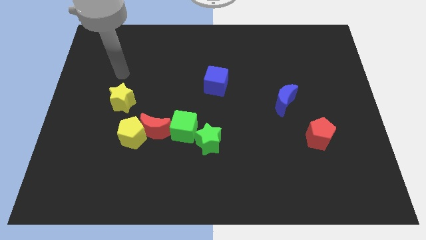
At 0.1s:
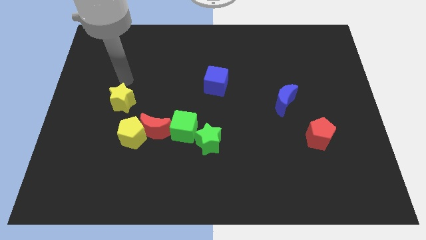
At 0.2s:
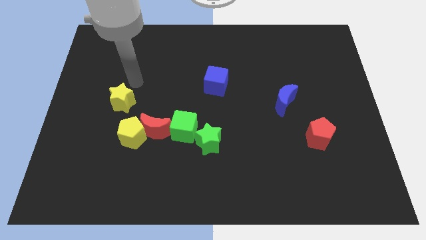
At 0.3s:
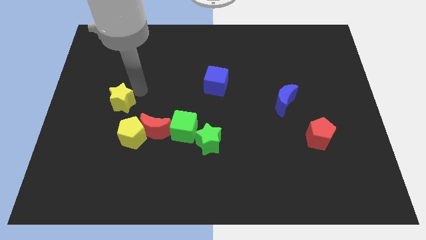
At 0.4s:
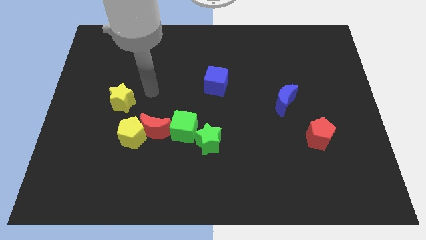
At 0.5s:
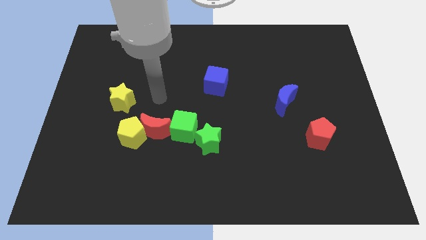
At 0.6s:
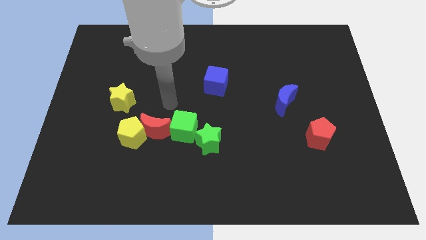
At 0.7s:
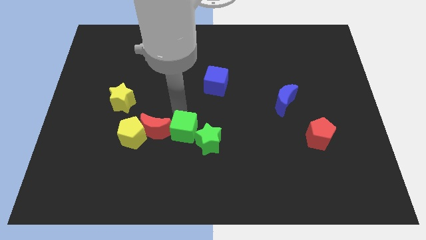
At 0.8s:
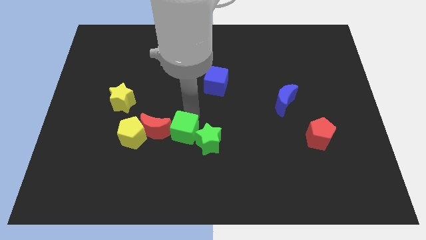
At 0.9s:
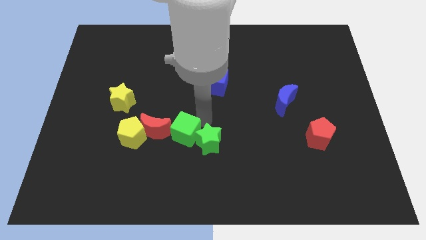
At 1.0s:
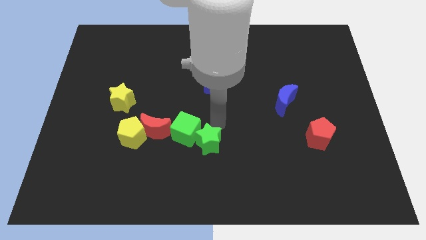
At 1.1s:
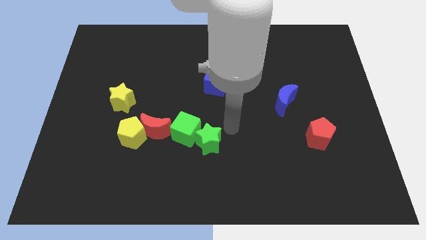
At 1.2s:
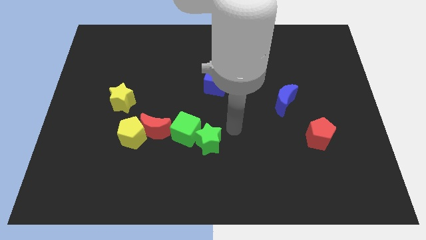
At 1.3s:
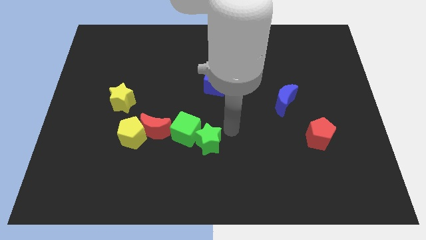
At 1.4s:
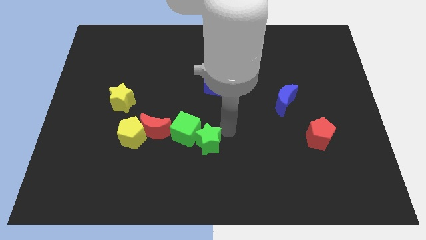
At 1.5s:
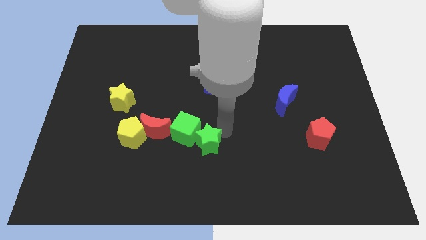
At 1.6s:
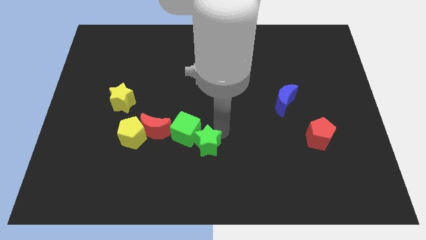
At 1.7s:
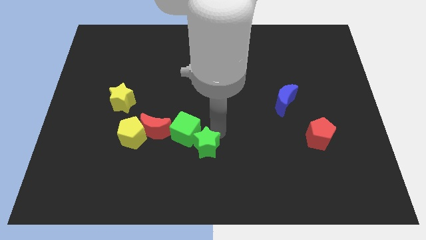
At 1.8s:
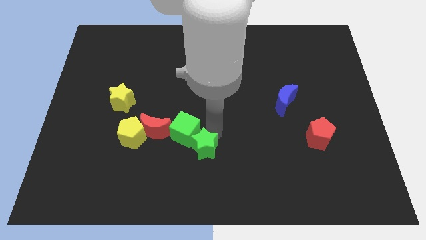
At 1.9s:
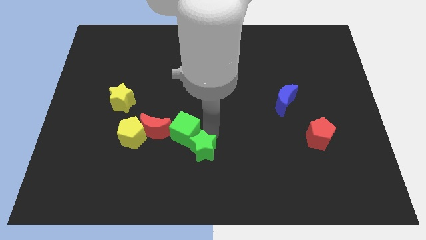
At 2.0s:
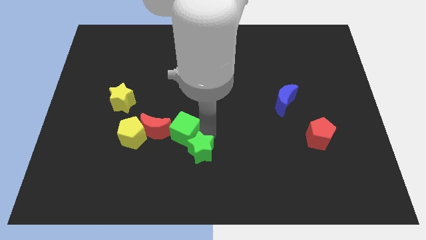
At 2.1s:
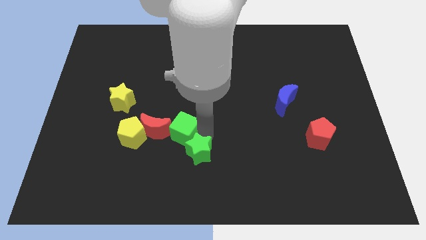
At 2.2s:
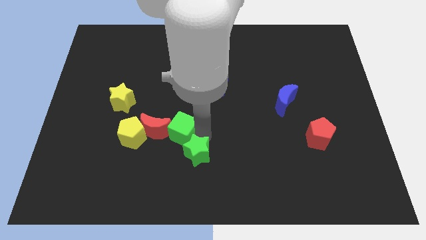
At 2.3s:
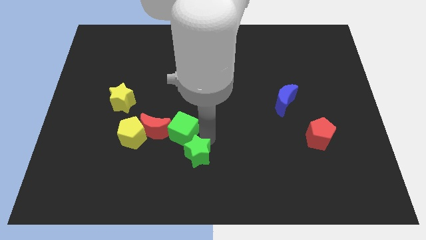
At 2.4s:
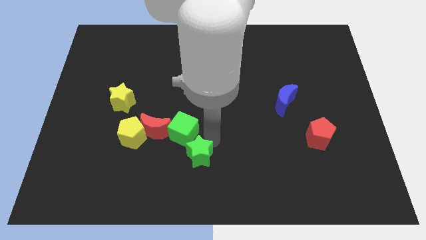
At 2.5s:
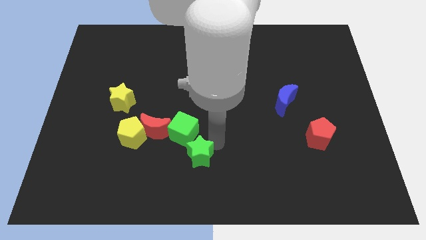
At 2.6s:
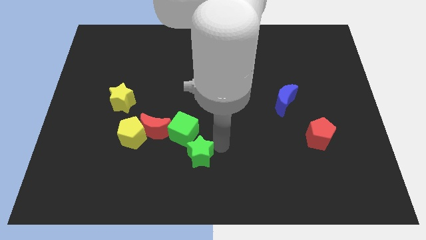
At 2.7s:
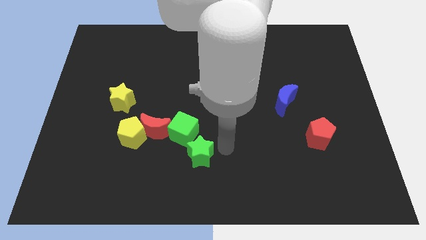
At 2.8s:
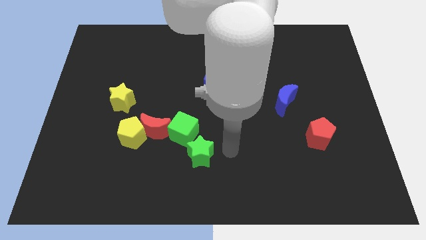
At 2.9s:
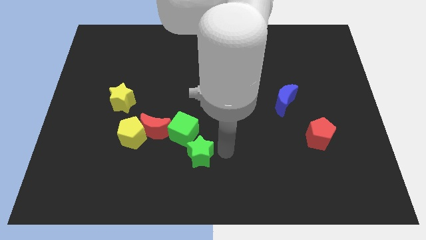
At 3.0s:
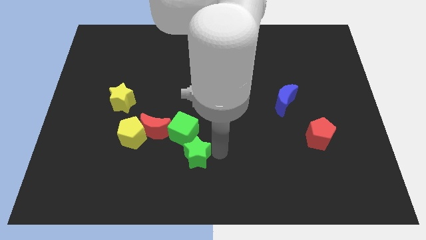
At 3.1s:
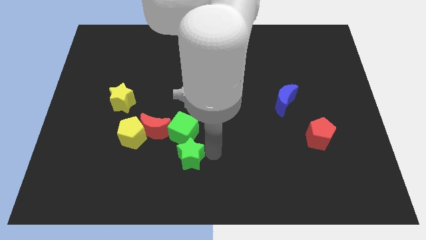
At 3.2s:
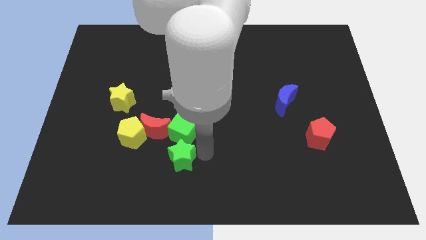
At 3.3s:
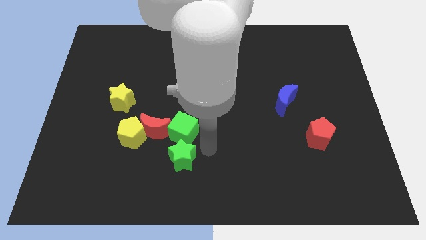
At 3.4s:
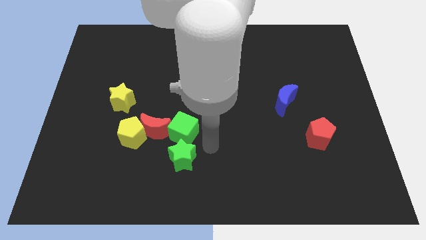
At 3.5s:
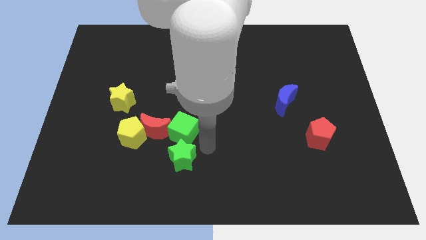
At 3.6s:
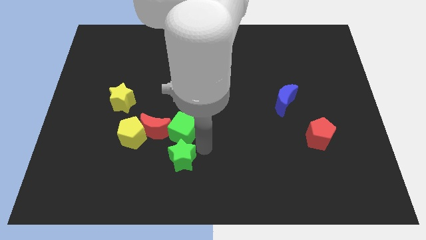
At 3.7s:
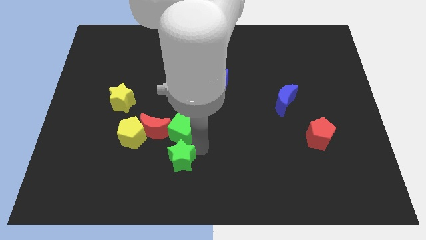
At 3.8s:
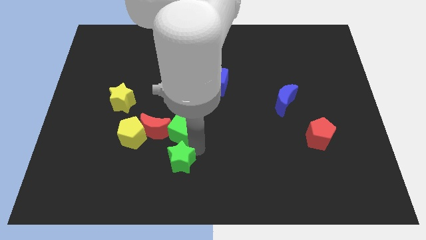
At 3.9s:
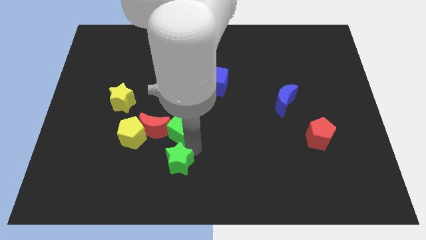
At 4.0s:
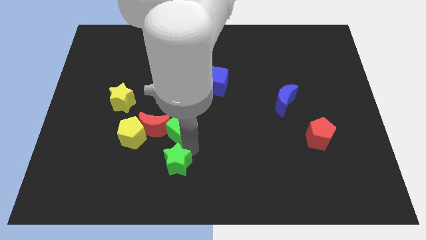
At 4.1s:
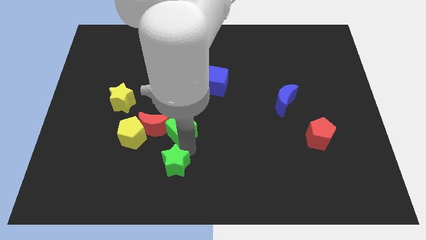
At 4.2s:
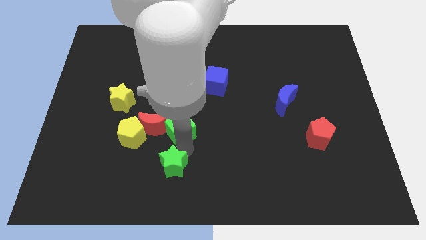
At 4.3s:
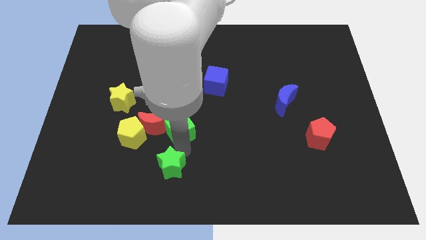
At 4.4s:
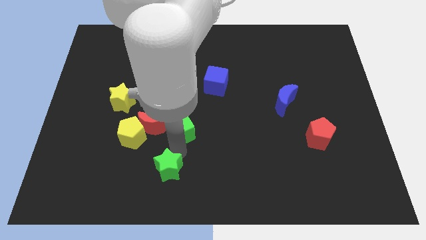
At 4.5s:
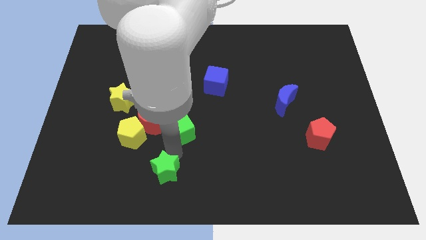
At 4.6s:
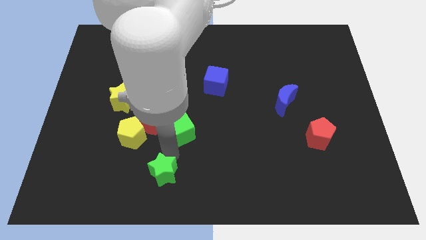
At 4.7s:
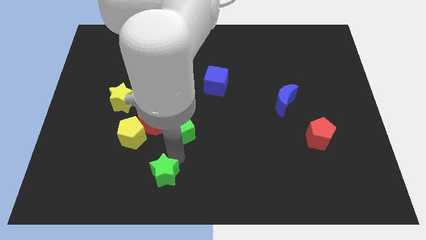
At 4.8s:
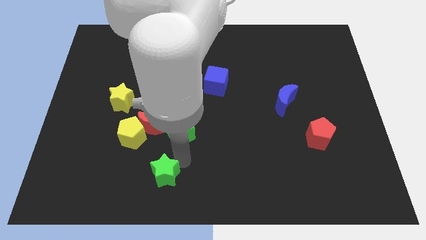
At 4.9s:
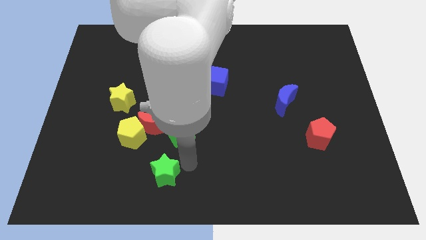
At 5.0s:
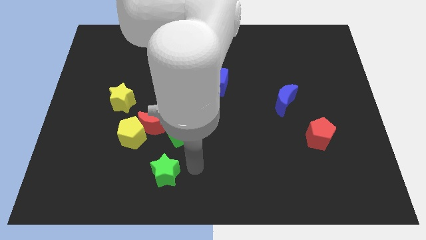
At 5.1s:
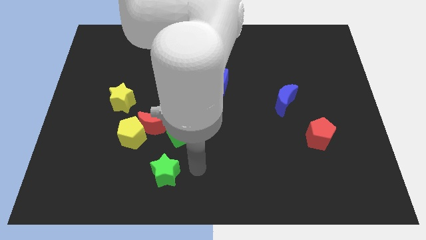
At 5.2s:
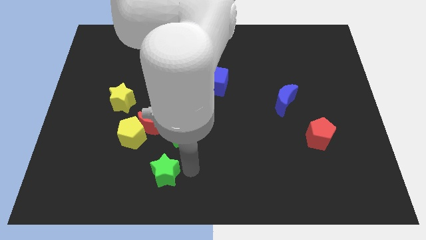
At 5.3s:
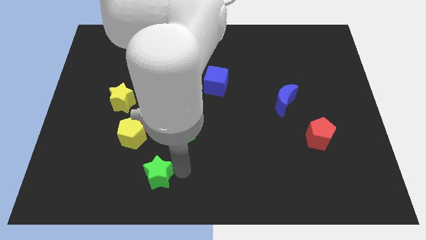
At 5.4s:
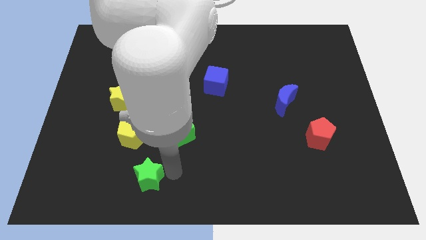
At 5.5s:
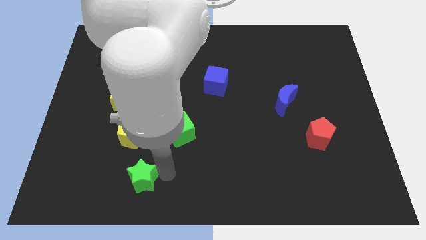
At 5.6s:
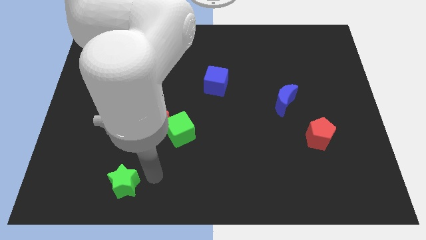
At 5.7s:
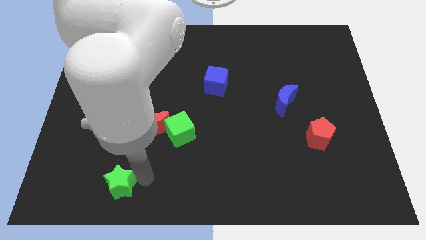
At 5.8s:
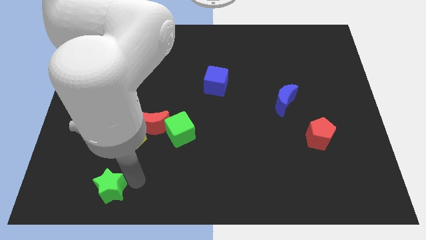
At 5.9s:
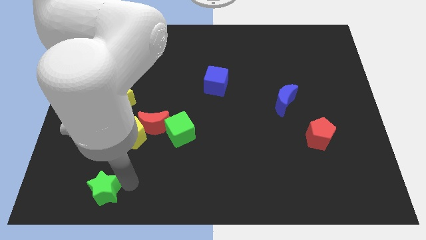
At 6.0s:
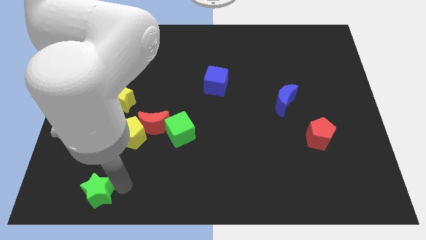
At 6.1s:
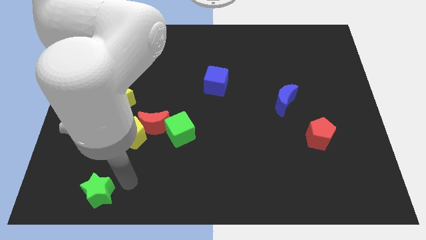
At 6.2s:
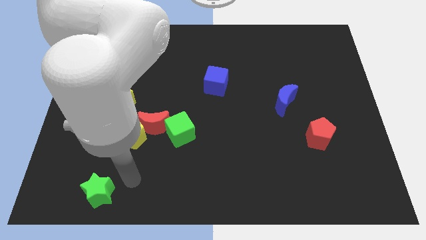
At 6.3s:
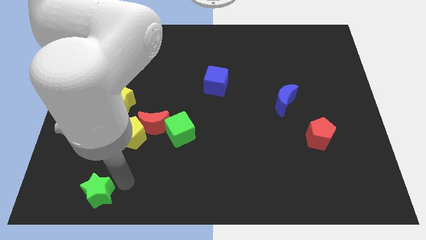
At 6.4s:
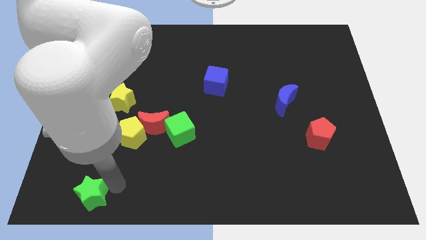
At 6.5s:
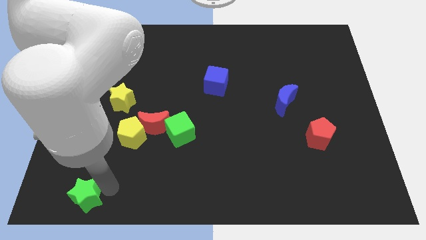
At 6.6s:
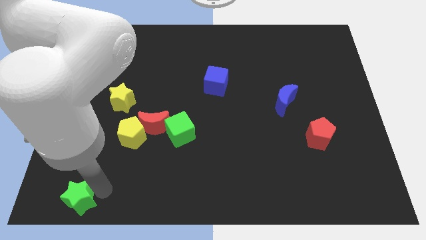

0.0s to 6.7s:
push the green star to the bottom left corner
